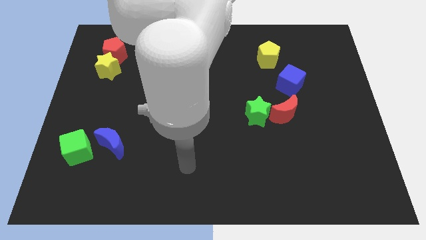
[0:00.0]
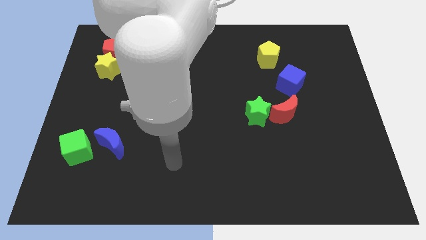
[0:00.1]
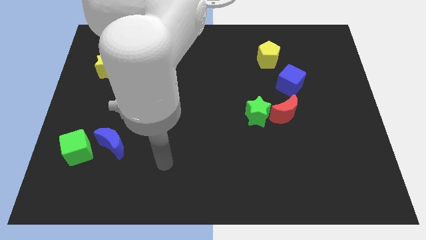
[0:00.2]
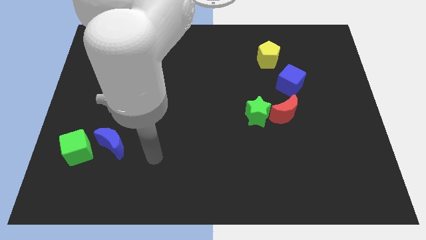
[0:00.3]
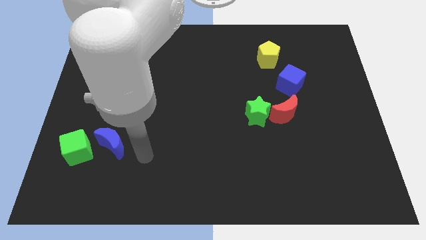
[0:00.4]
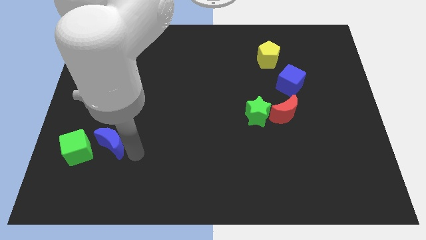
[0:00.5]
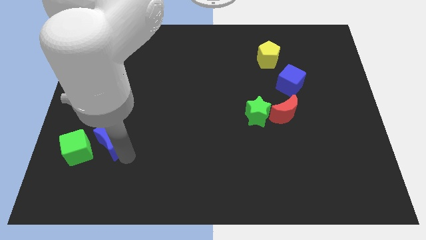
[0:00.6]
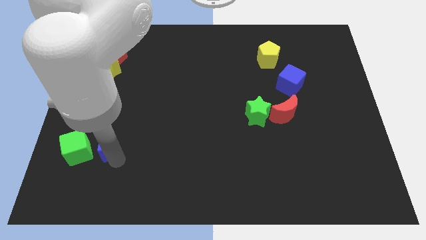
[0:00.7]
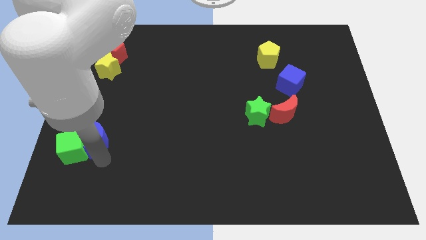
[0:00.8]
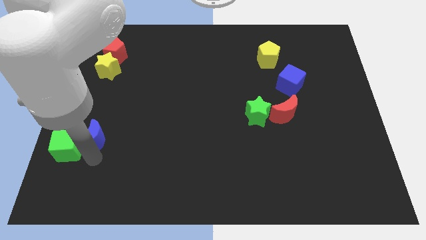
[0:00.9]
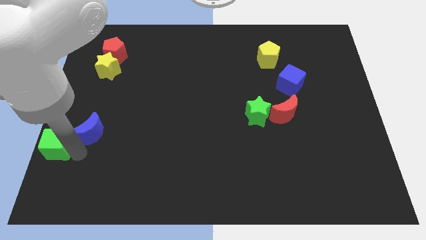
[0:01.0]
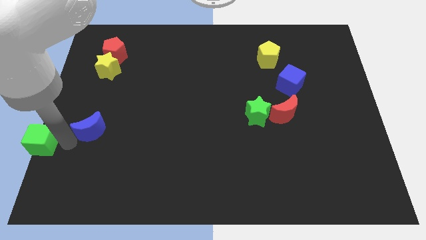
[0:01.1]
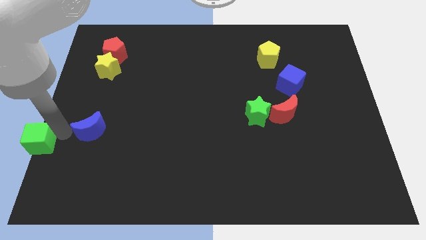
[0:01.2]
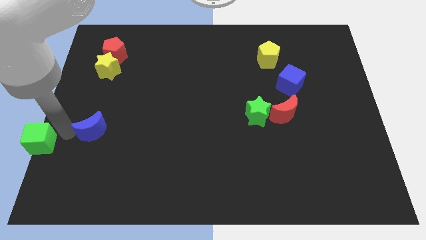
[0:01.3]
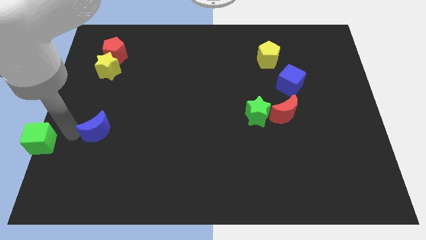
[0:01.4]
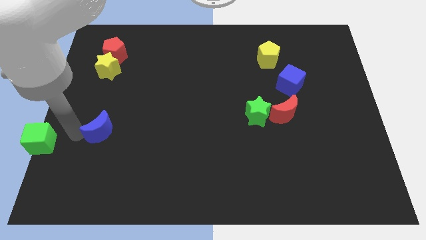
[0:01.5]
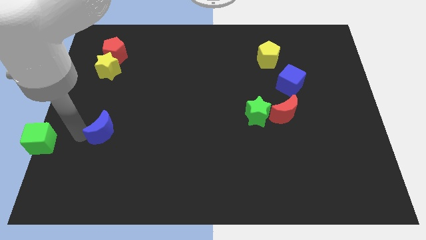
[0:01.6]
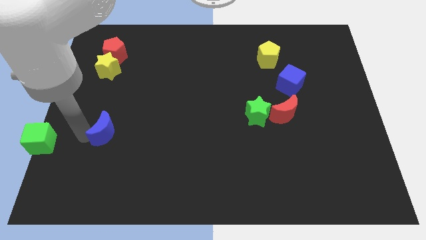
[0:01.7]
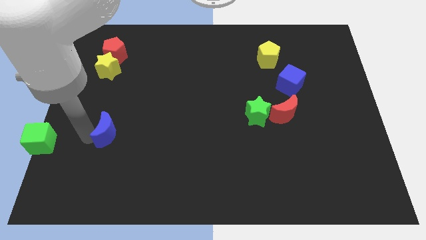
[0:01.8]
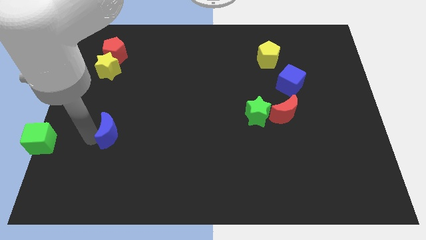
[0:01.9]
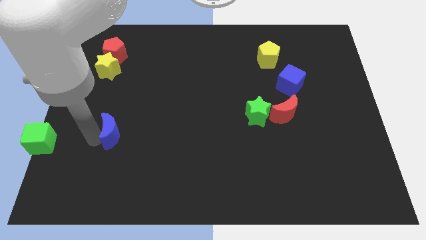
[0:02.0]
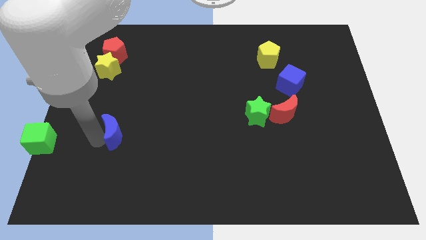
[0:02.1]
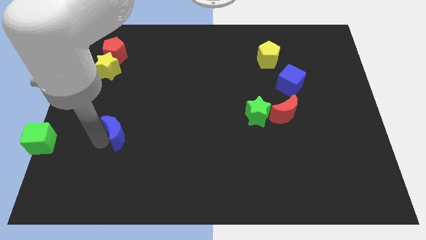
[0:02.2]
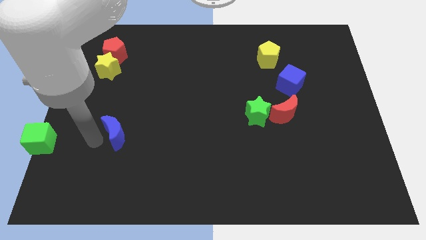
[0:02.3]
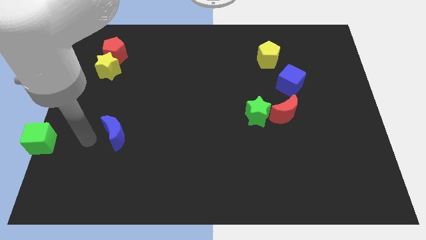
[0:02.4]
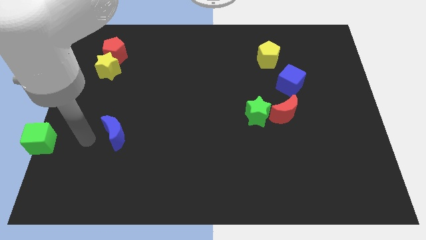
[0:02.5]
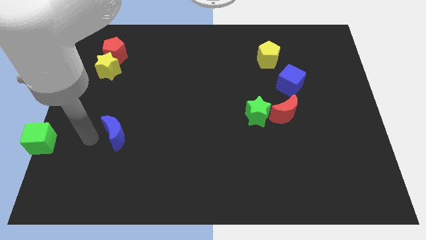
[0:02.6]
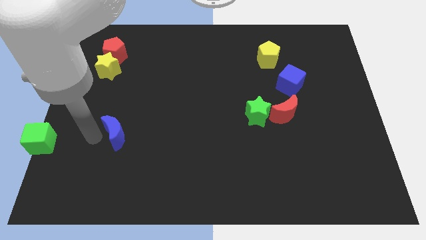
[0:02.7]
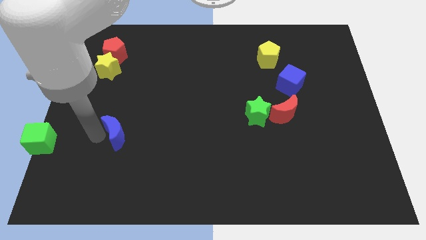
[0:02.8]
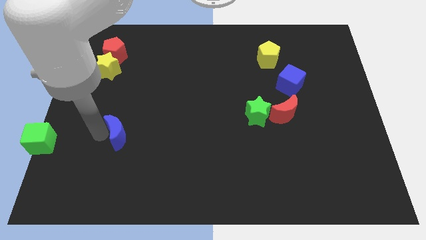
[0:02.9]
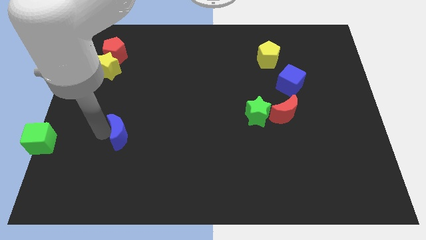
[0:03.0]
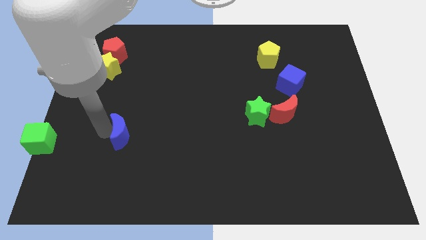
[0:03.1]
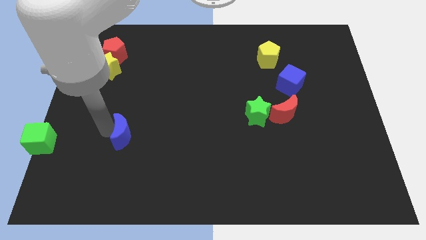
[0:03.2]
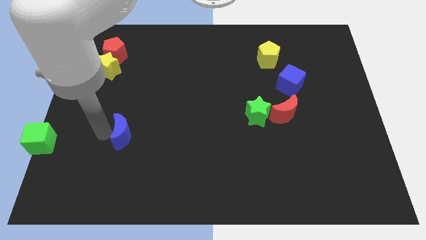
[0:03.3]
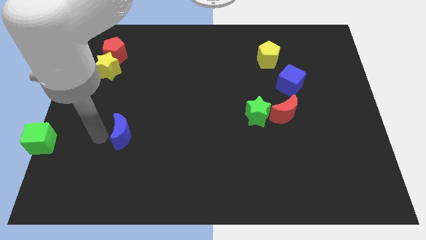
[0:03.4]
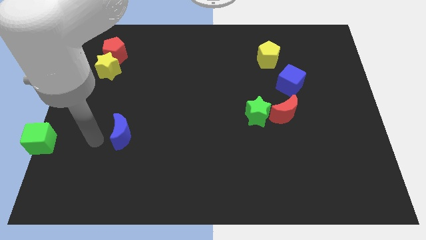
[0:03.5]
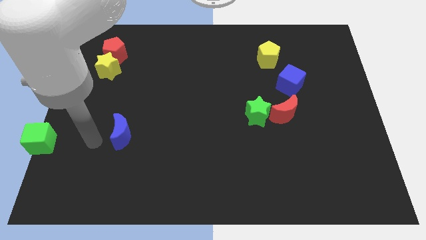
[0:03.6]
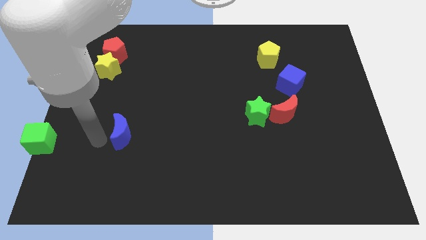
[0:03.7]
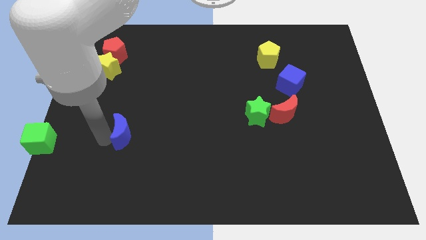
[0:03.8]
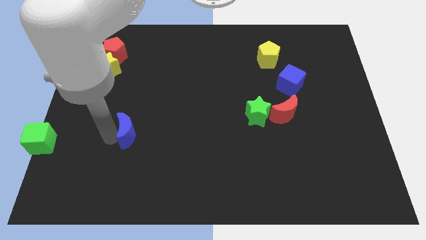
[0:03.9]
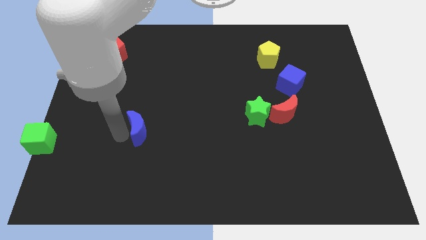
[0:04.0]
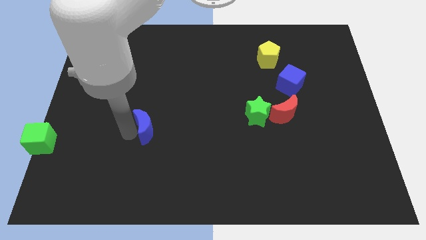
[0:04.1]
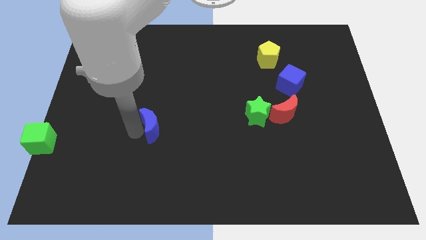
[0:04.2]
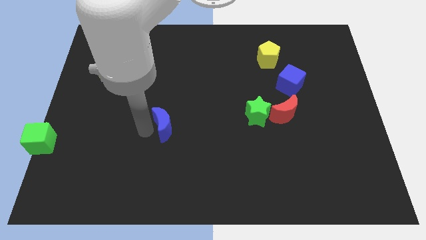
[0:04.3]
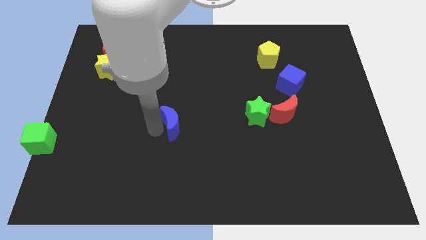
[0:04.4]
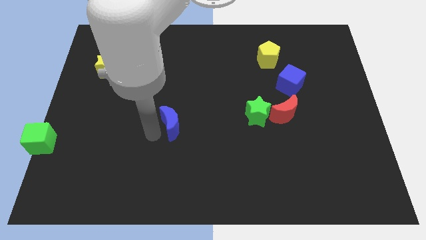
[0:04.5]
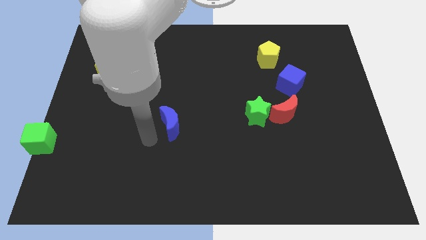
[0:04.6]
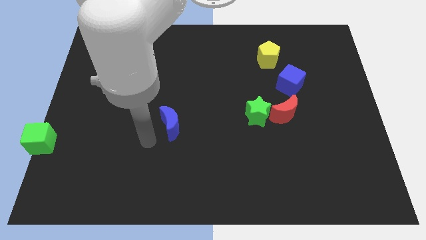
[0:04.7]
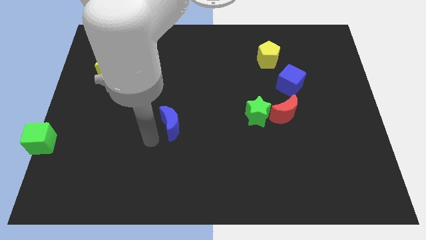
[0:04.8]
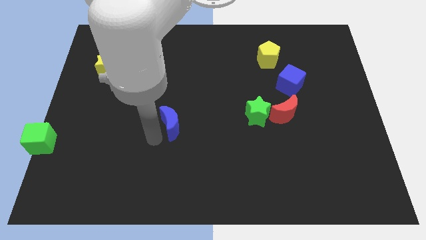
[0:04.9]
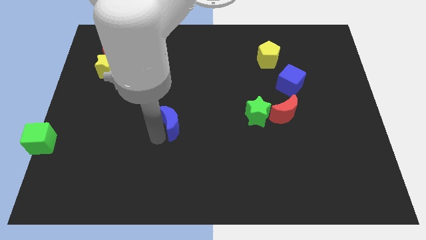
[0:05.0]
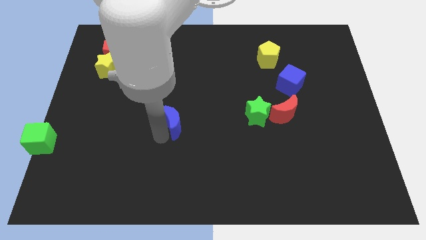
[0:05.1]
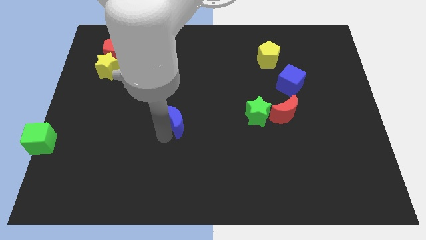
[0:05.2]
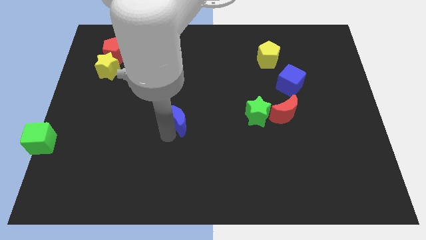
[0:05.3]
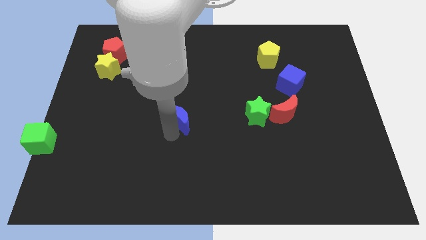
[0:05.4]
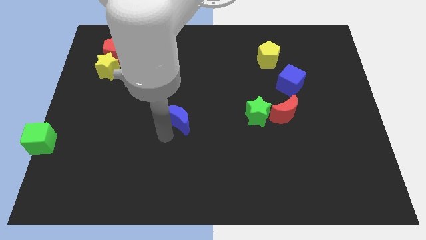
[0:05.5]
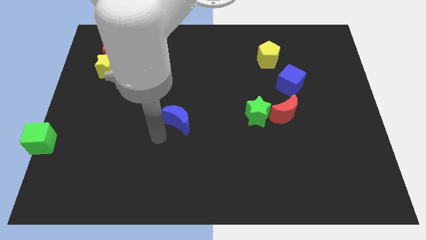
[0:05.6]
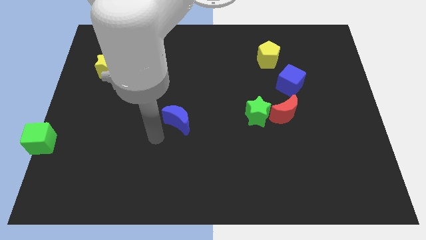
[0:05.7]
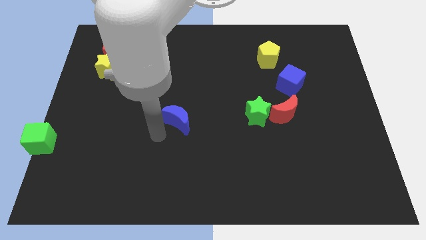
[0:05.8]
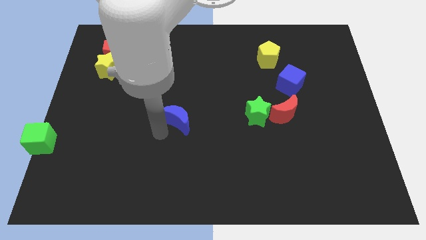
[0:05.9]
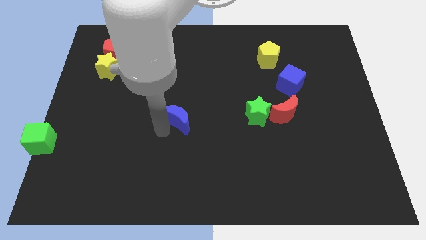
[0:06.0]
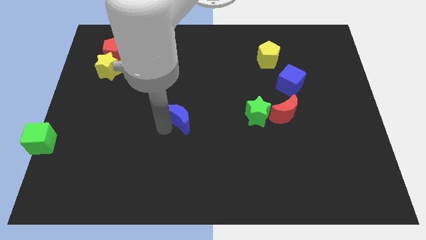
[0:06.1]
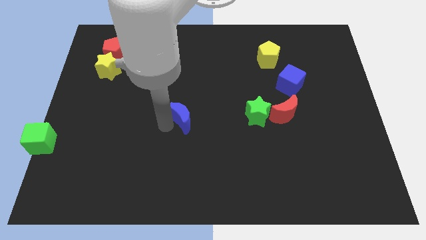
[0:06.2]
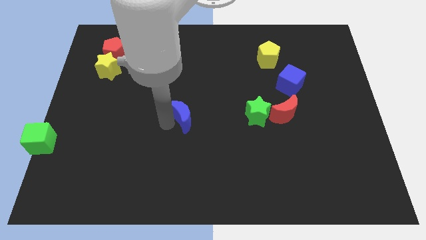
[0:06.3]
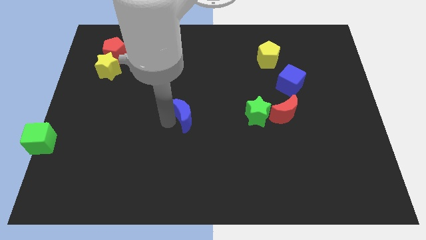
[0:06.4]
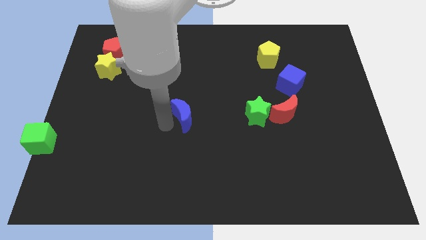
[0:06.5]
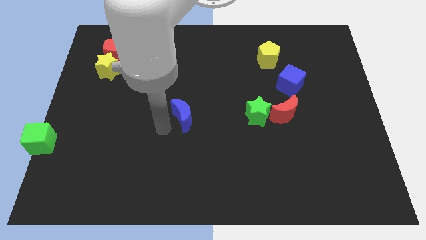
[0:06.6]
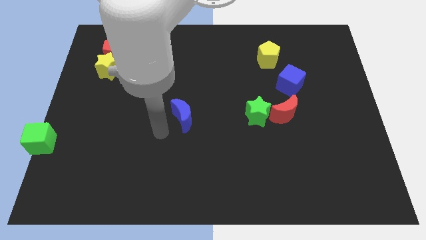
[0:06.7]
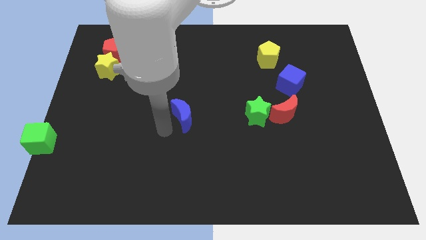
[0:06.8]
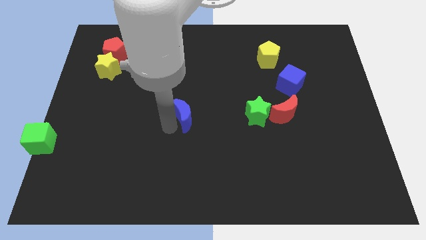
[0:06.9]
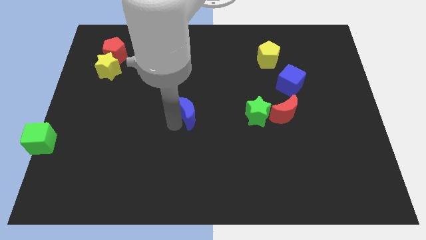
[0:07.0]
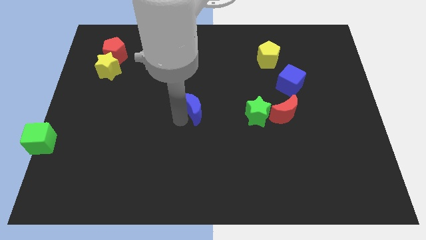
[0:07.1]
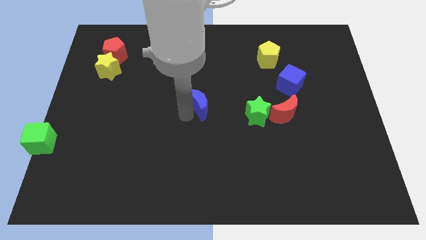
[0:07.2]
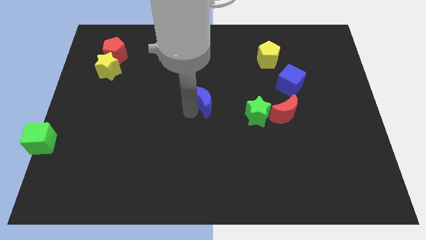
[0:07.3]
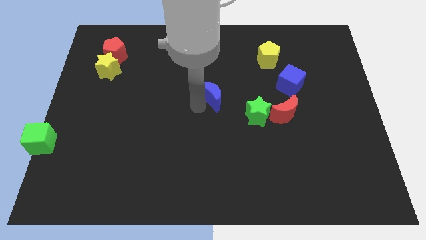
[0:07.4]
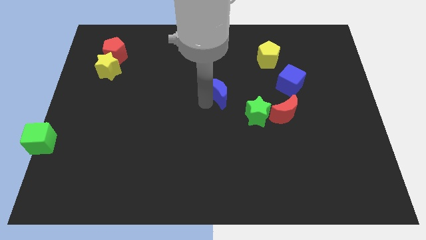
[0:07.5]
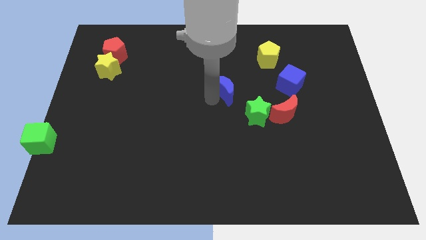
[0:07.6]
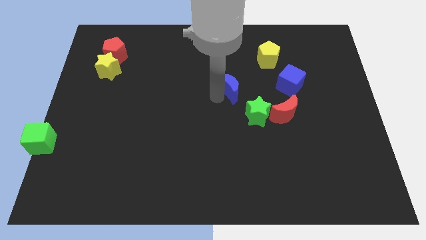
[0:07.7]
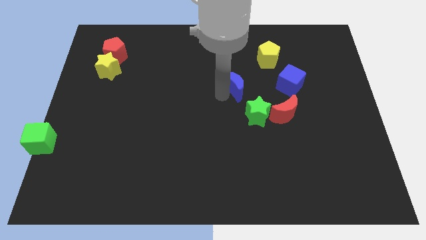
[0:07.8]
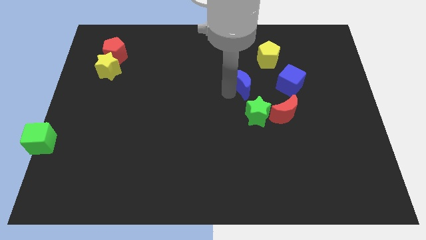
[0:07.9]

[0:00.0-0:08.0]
push the blue moon diagonally down and to the left of the yellow pentagon
